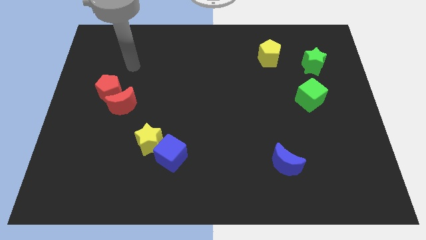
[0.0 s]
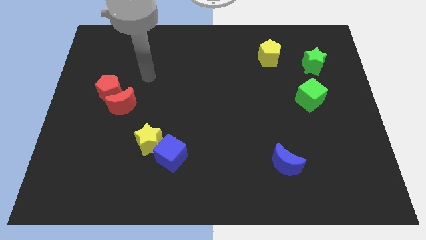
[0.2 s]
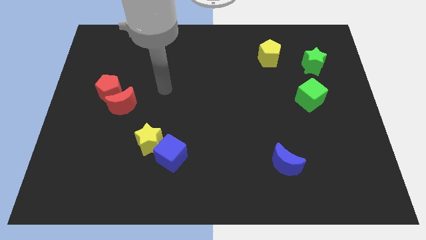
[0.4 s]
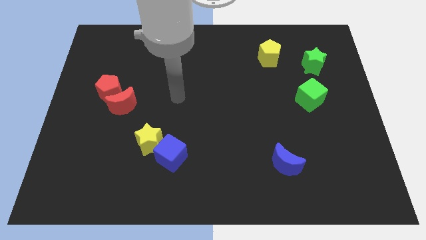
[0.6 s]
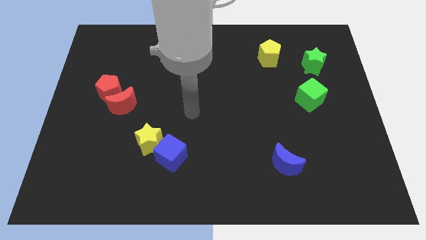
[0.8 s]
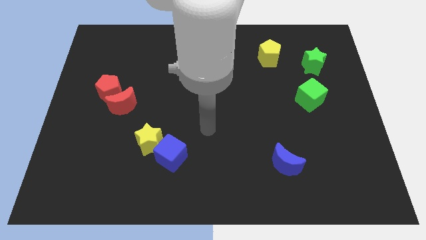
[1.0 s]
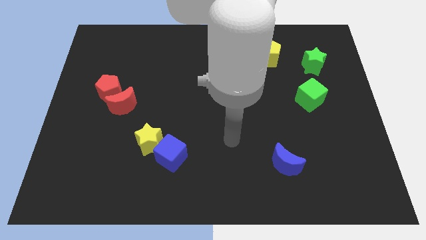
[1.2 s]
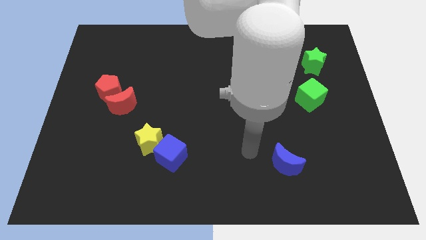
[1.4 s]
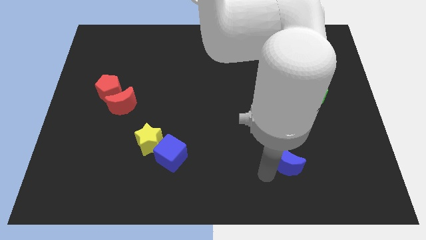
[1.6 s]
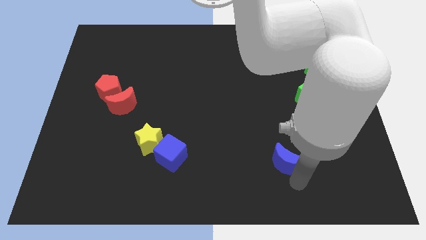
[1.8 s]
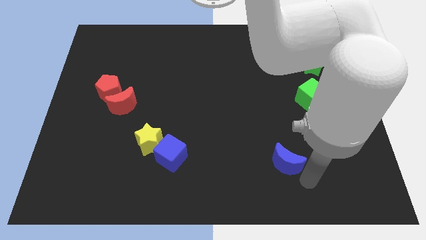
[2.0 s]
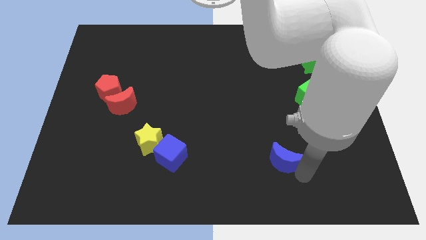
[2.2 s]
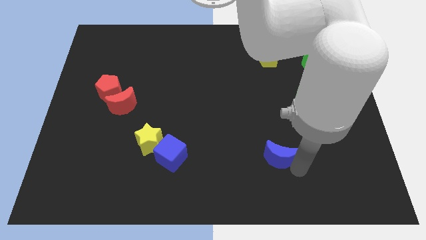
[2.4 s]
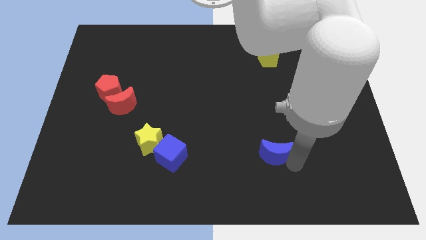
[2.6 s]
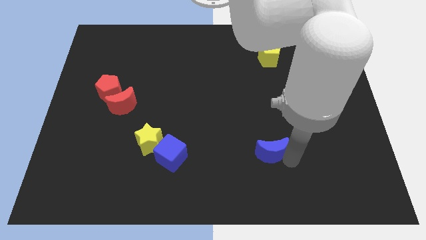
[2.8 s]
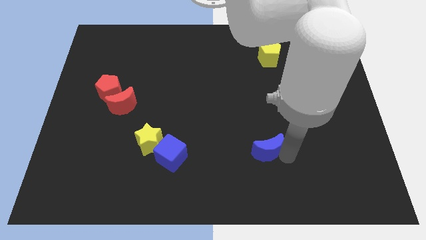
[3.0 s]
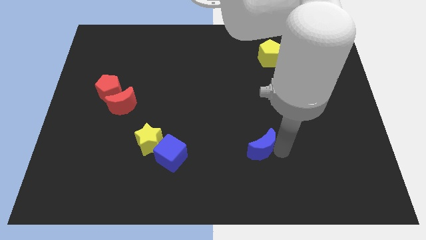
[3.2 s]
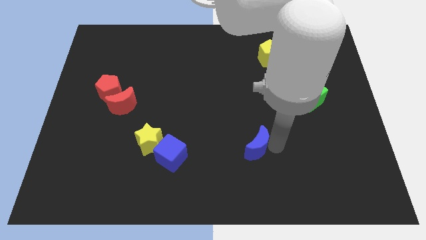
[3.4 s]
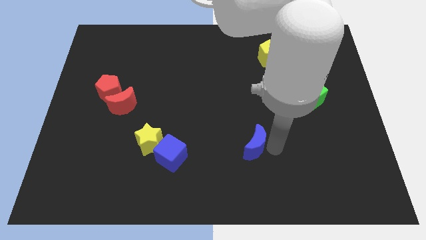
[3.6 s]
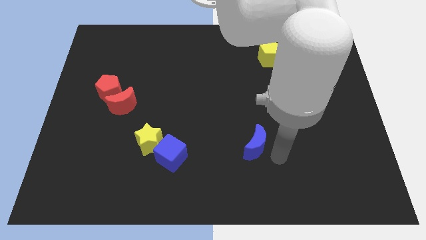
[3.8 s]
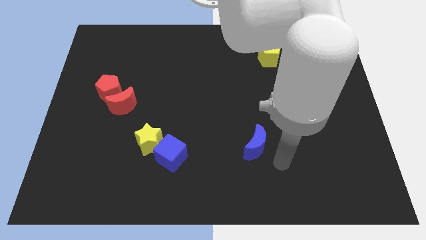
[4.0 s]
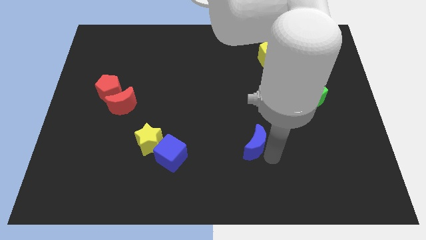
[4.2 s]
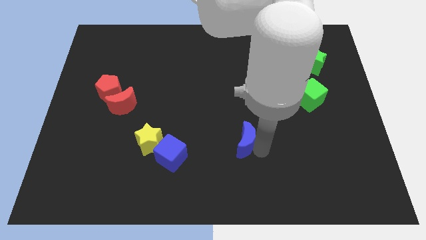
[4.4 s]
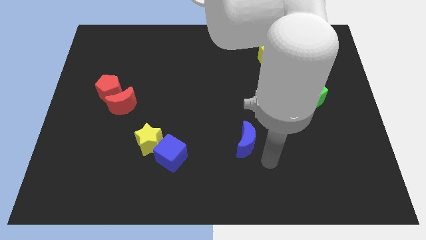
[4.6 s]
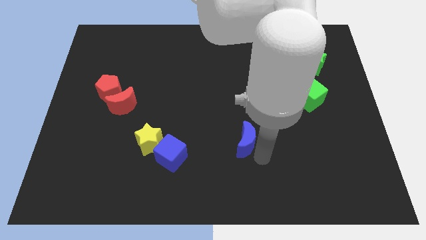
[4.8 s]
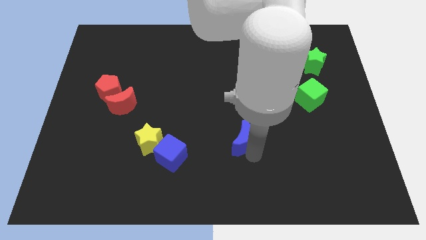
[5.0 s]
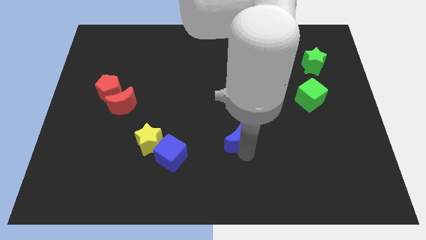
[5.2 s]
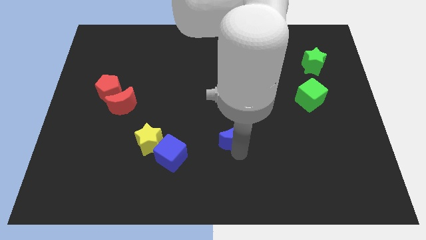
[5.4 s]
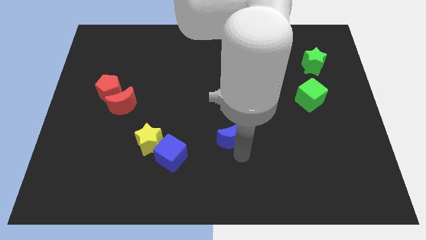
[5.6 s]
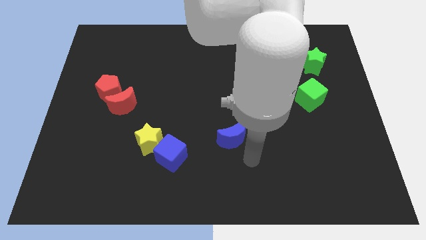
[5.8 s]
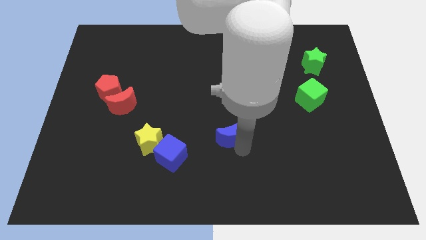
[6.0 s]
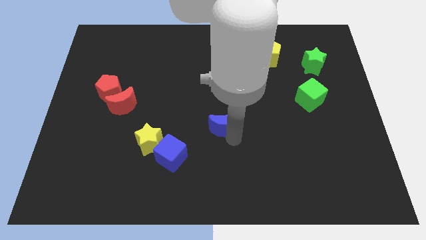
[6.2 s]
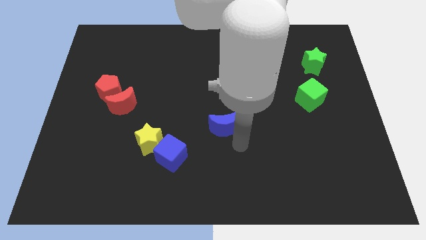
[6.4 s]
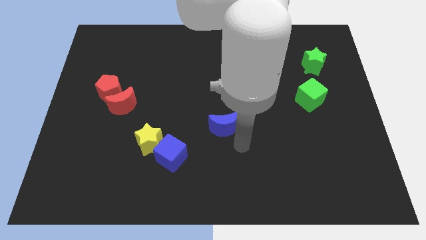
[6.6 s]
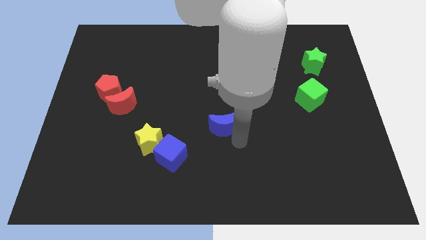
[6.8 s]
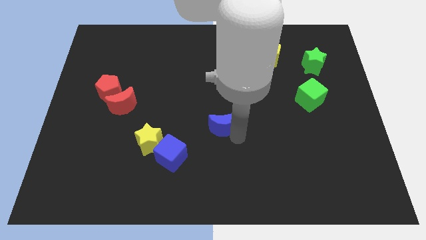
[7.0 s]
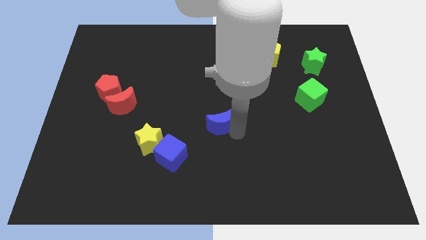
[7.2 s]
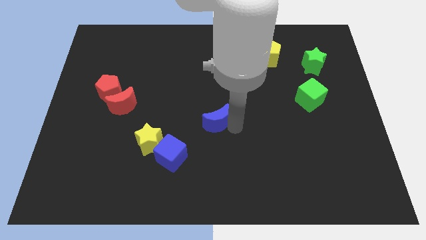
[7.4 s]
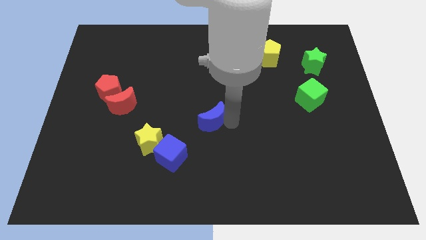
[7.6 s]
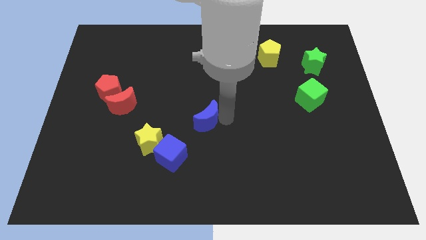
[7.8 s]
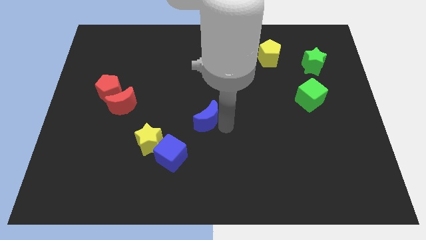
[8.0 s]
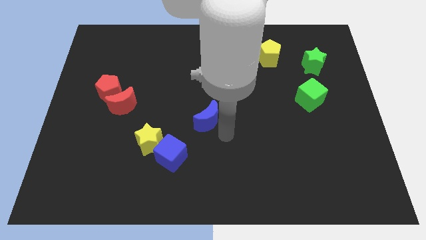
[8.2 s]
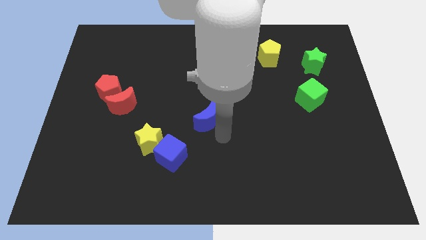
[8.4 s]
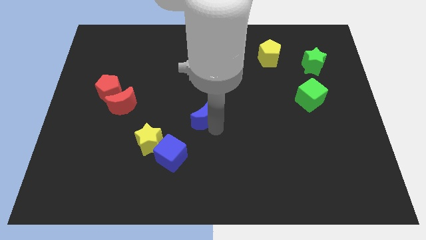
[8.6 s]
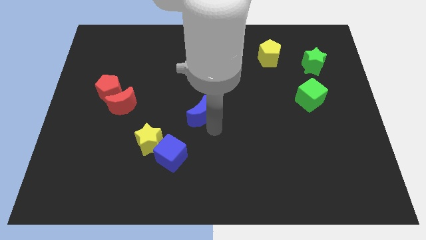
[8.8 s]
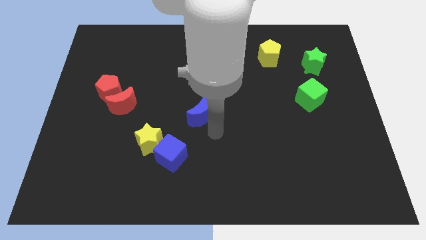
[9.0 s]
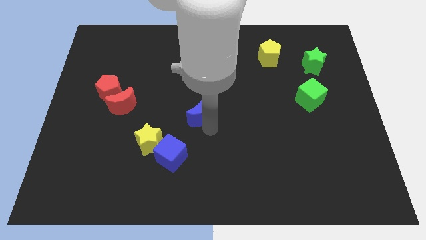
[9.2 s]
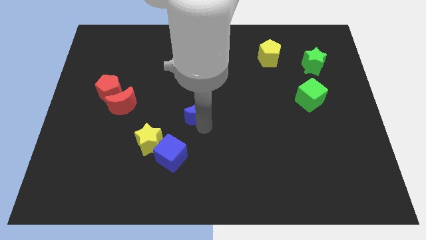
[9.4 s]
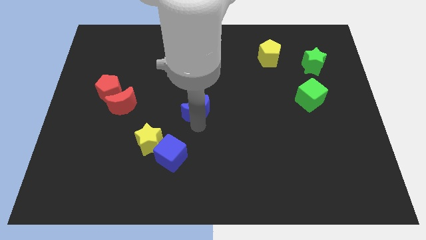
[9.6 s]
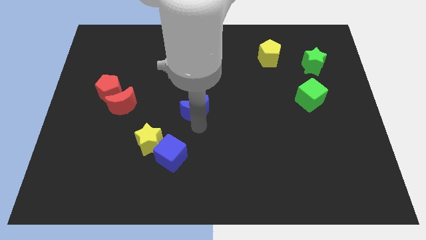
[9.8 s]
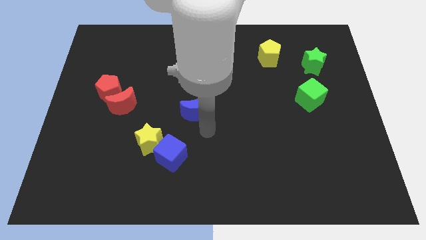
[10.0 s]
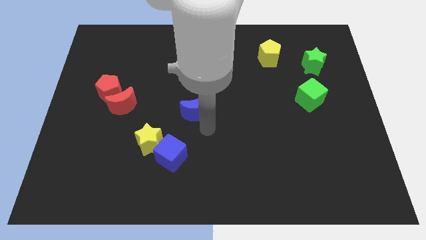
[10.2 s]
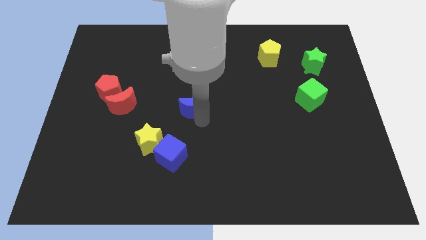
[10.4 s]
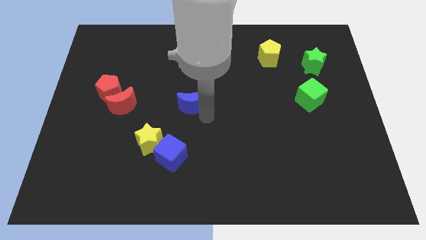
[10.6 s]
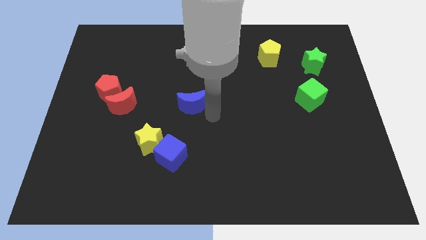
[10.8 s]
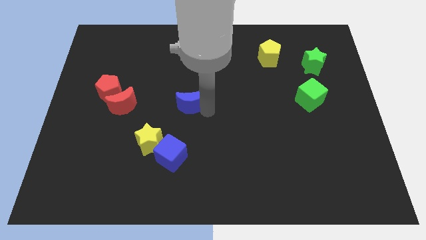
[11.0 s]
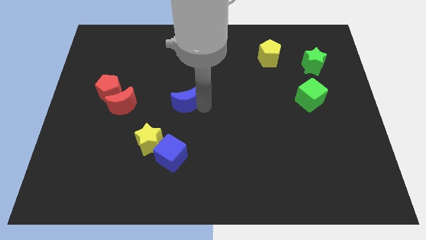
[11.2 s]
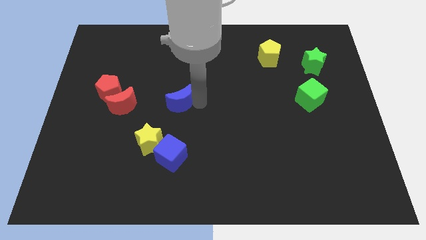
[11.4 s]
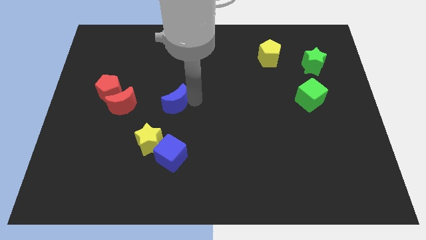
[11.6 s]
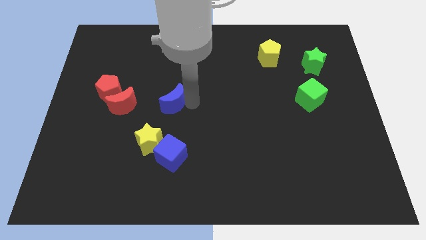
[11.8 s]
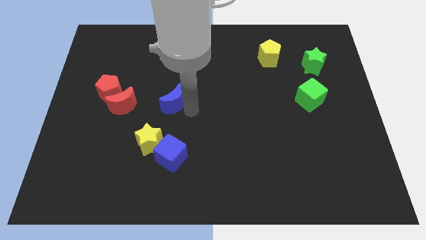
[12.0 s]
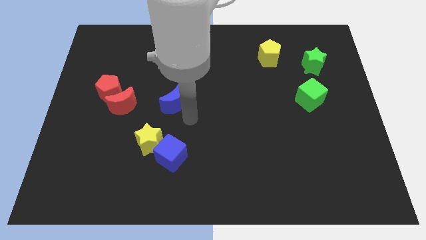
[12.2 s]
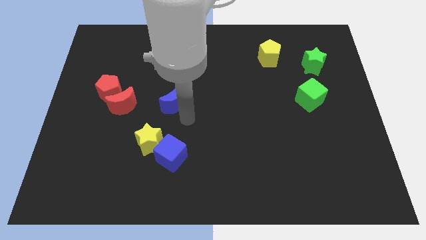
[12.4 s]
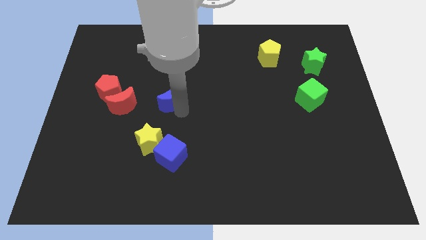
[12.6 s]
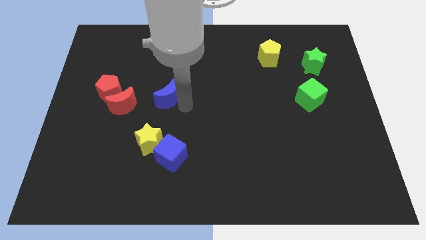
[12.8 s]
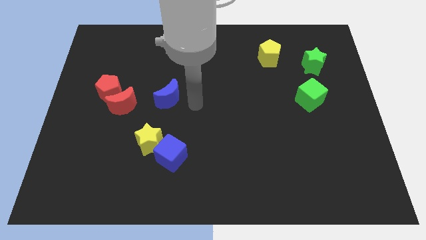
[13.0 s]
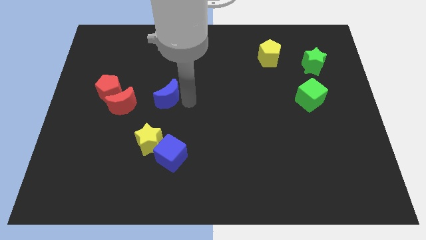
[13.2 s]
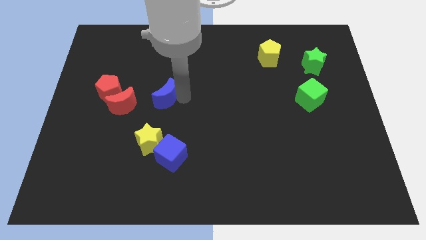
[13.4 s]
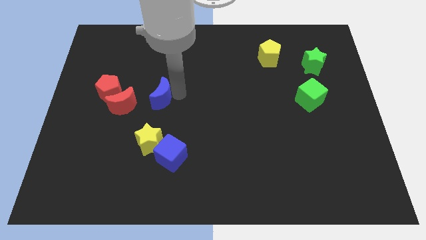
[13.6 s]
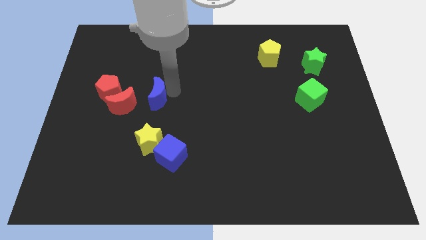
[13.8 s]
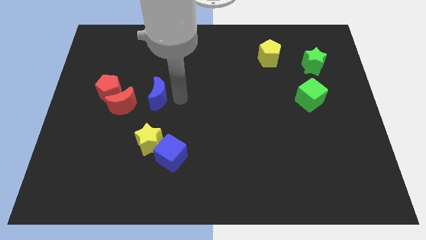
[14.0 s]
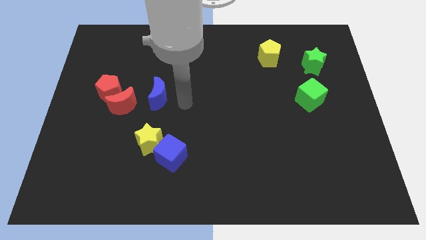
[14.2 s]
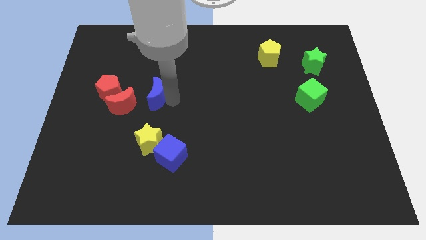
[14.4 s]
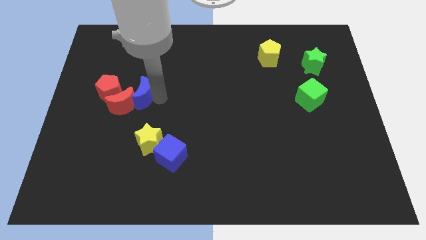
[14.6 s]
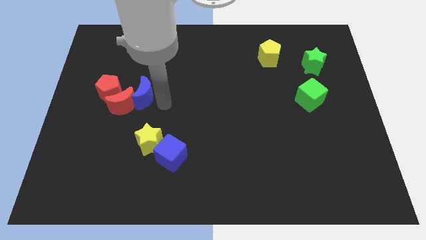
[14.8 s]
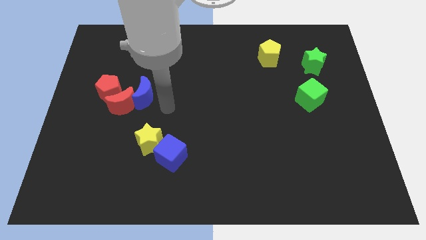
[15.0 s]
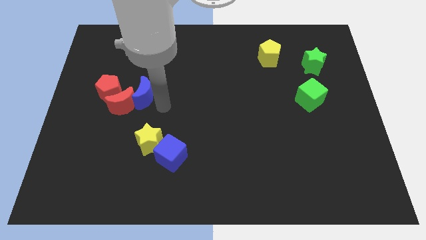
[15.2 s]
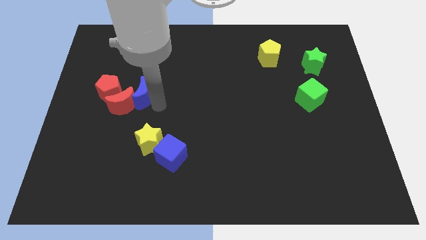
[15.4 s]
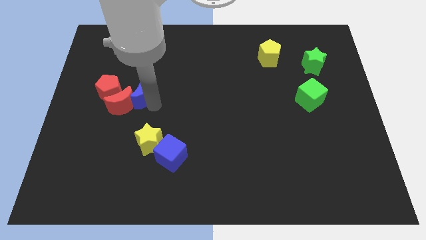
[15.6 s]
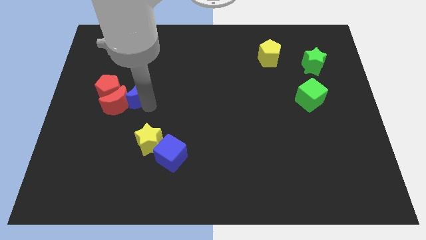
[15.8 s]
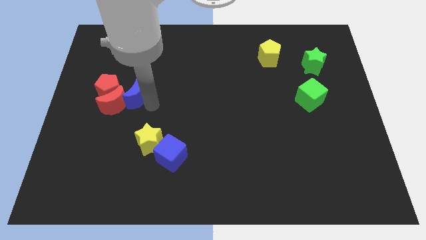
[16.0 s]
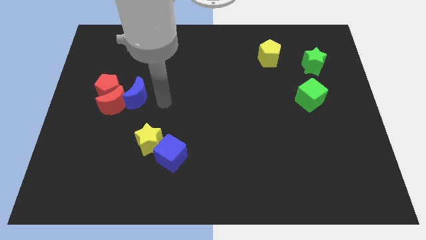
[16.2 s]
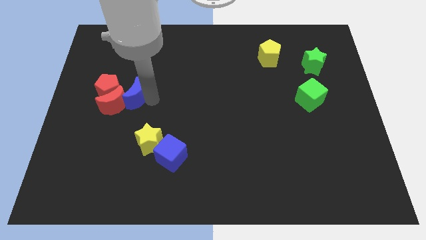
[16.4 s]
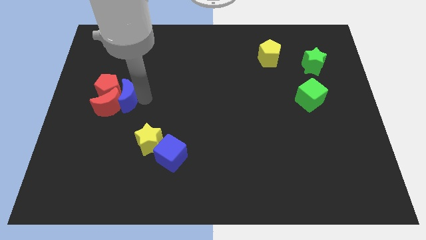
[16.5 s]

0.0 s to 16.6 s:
put the blue moon towards the red pentagon
